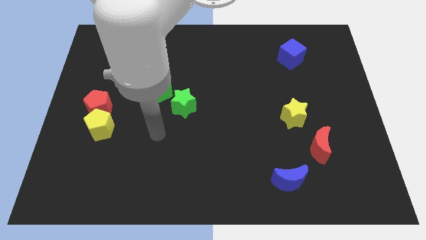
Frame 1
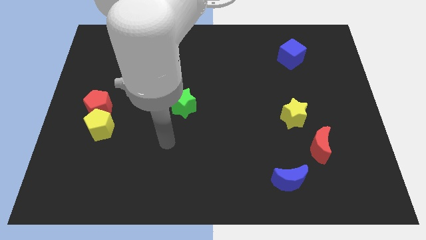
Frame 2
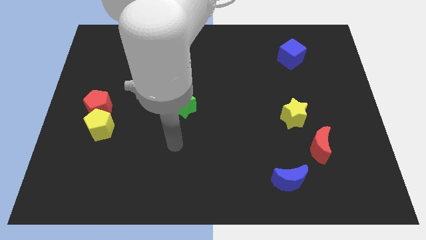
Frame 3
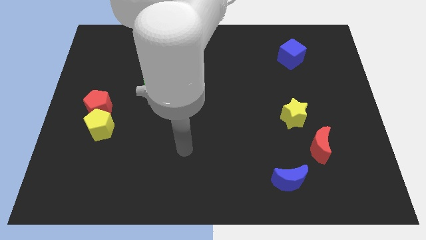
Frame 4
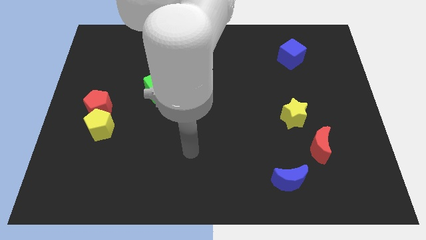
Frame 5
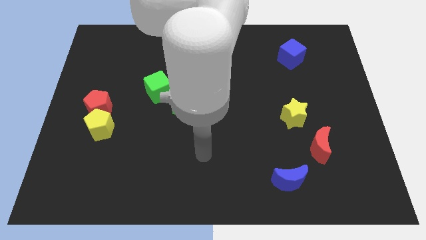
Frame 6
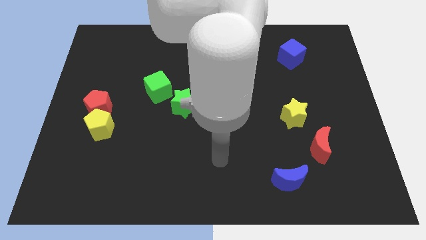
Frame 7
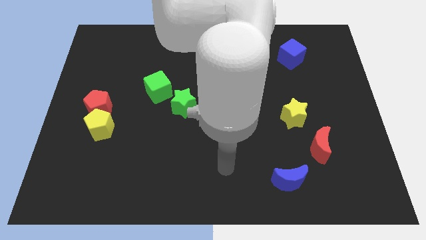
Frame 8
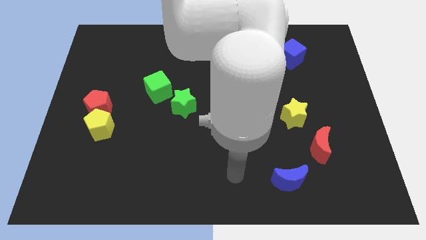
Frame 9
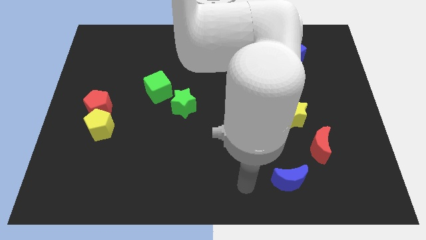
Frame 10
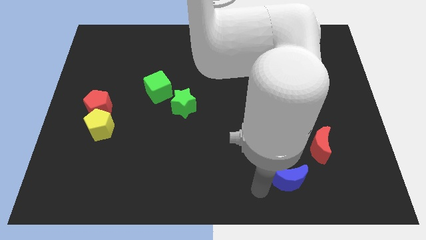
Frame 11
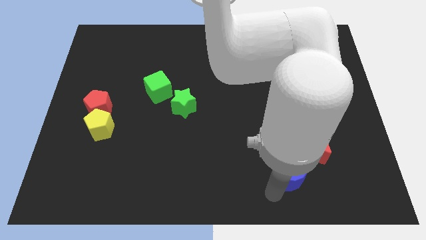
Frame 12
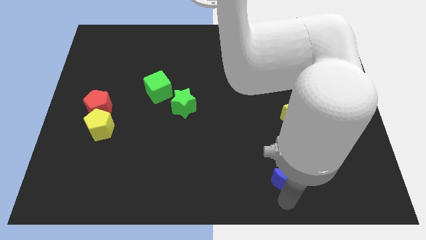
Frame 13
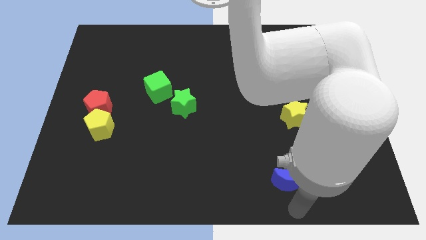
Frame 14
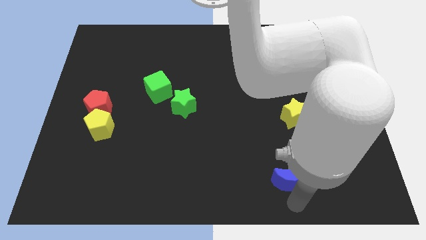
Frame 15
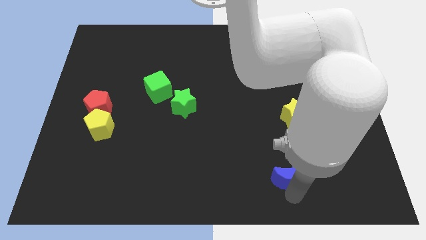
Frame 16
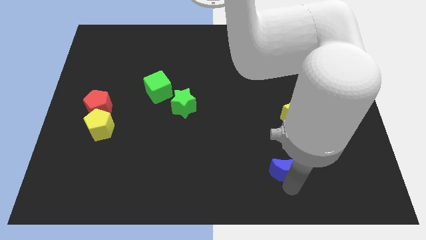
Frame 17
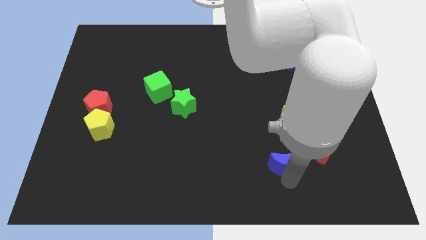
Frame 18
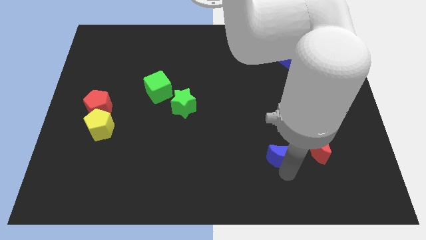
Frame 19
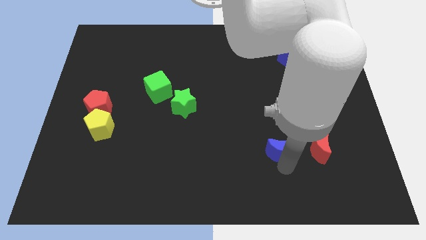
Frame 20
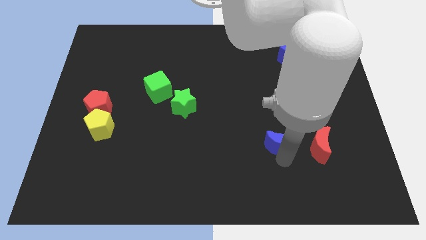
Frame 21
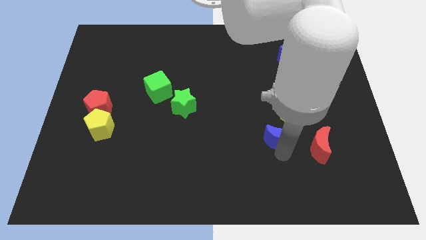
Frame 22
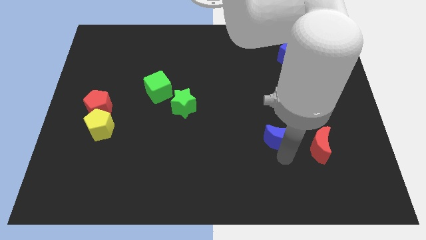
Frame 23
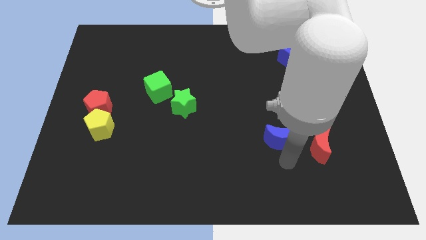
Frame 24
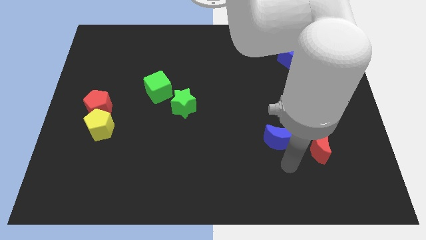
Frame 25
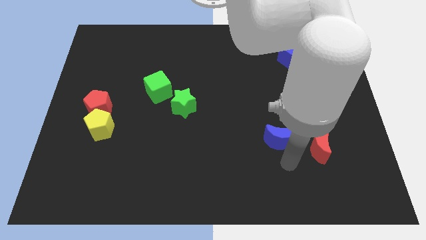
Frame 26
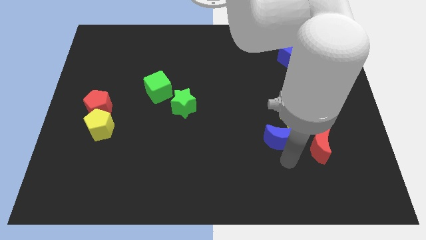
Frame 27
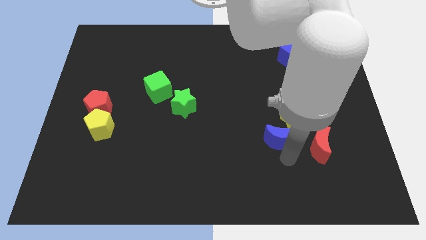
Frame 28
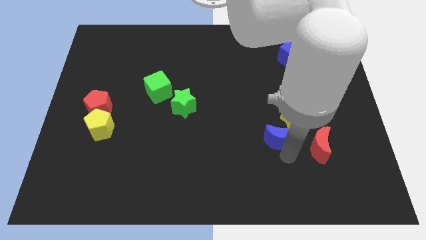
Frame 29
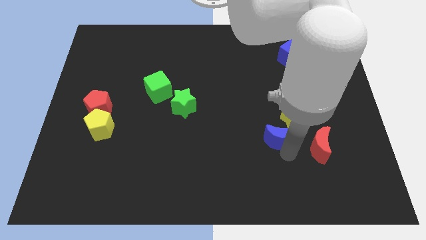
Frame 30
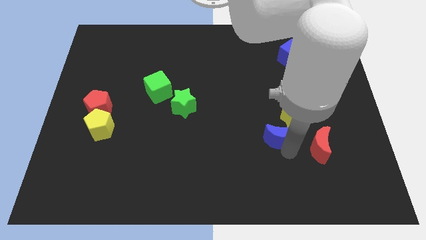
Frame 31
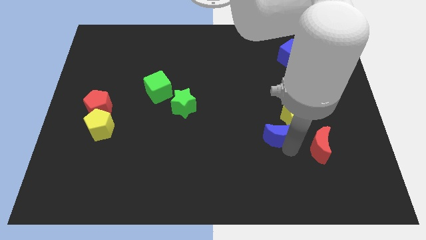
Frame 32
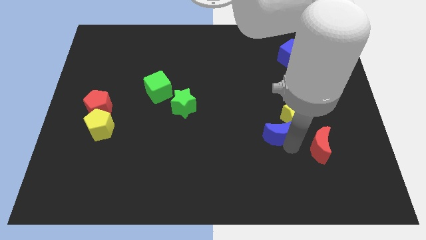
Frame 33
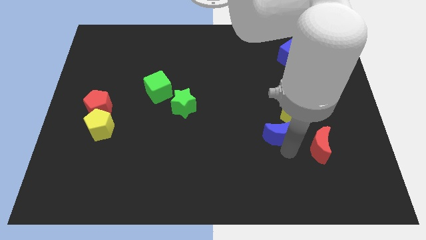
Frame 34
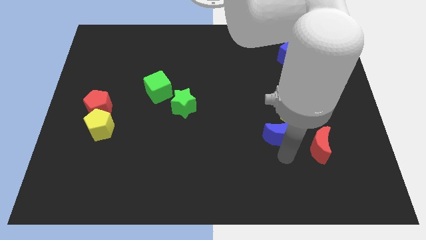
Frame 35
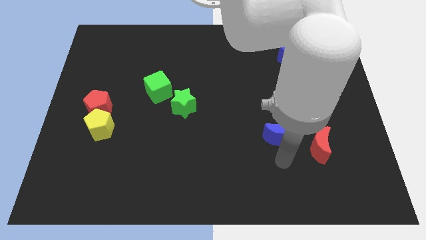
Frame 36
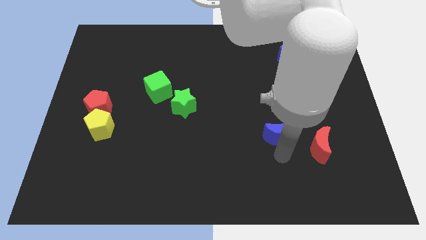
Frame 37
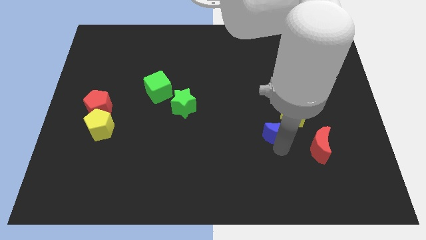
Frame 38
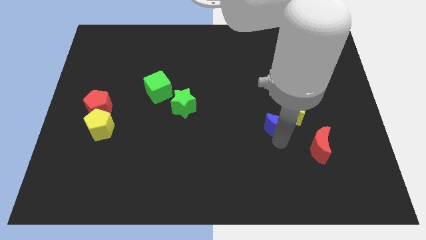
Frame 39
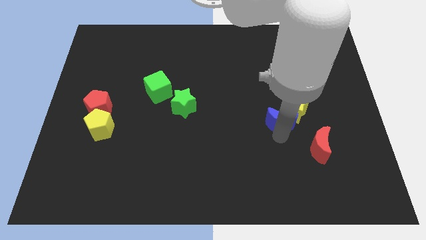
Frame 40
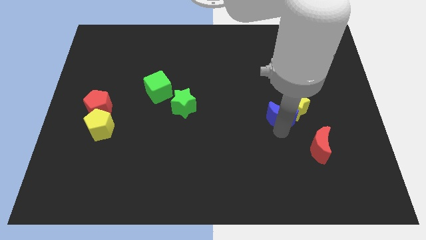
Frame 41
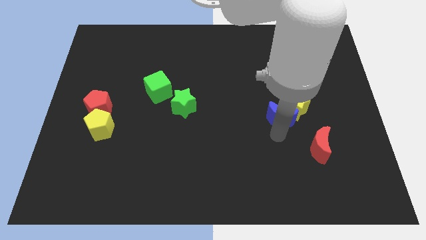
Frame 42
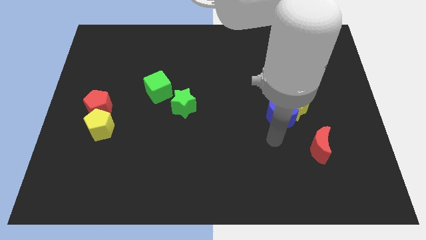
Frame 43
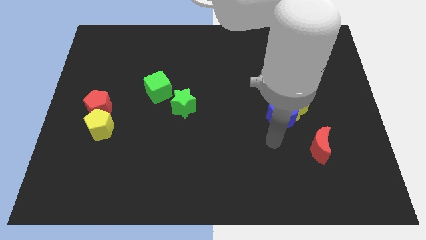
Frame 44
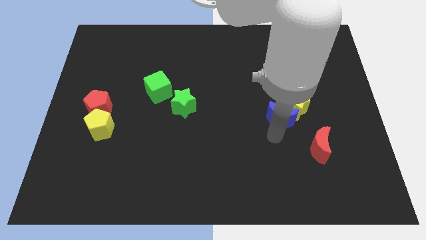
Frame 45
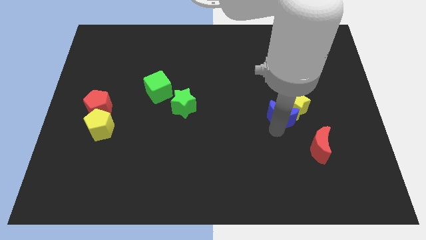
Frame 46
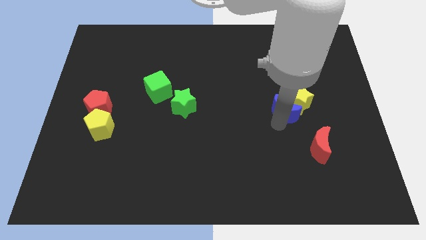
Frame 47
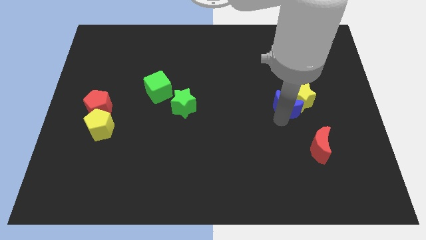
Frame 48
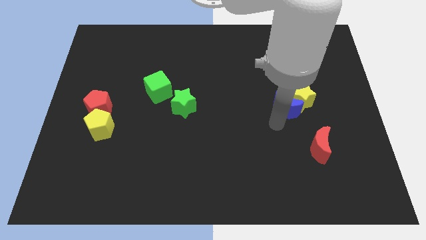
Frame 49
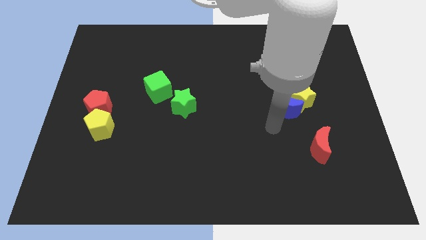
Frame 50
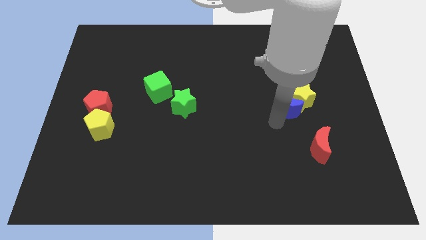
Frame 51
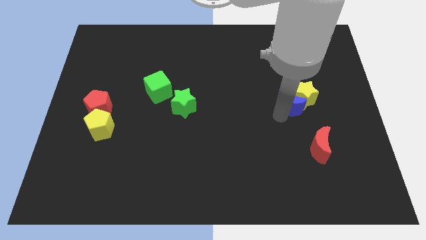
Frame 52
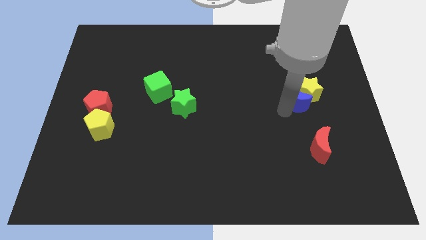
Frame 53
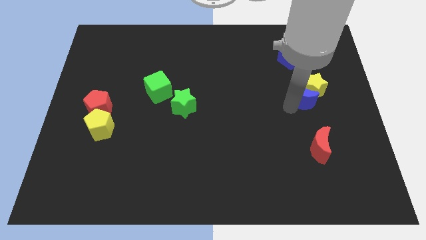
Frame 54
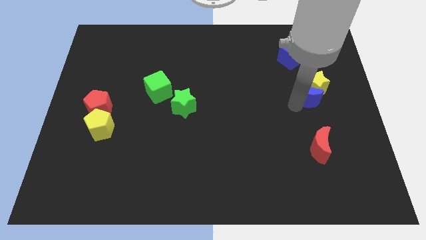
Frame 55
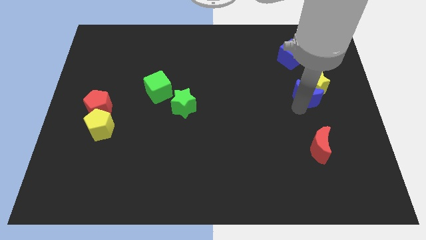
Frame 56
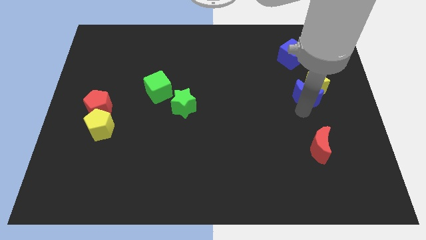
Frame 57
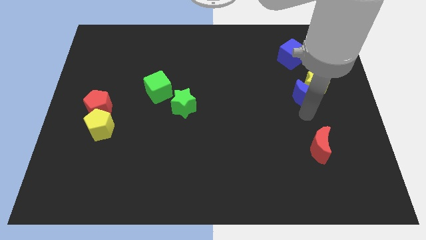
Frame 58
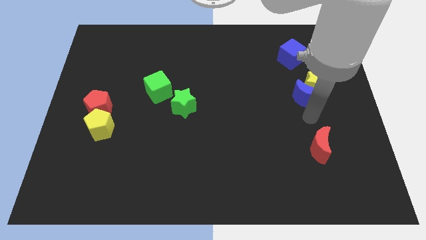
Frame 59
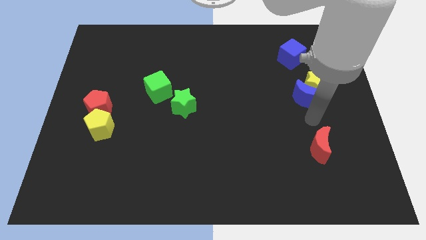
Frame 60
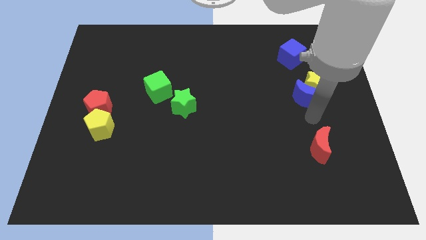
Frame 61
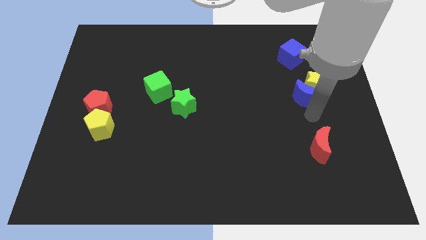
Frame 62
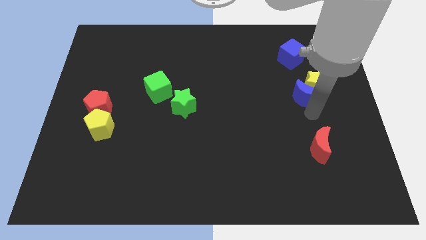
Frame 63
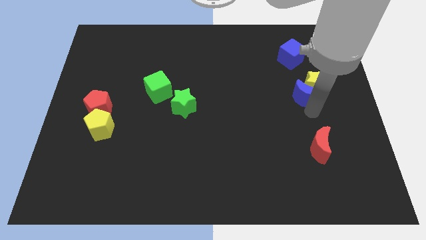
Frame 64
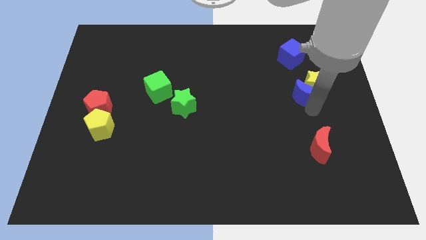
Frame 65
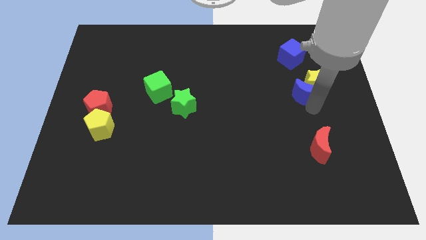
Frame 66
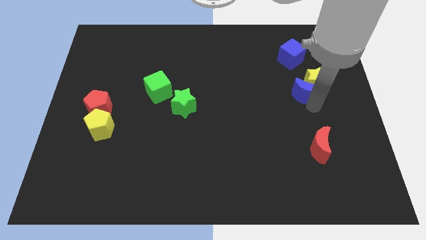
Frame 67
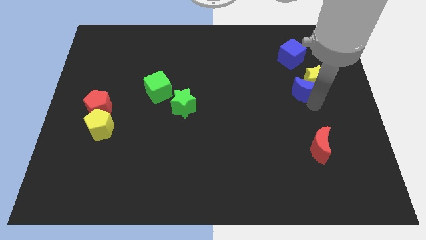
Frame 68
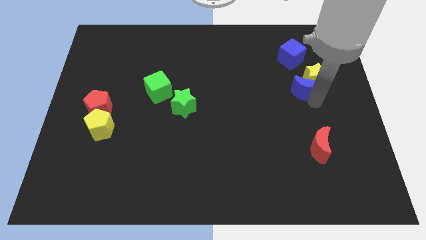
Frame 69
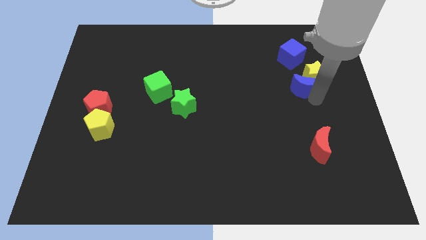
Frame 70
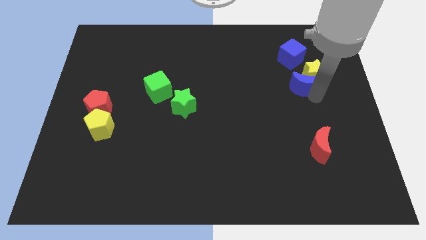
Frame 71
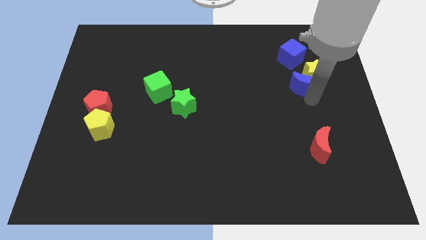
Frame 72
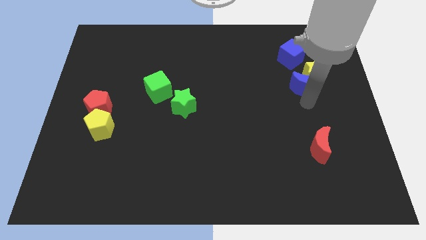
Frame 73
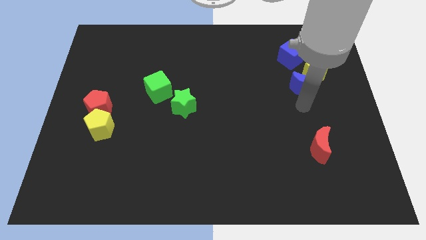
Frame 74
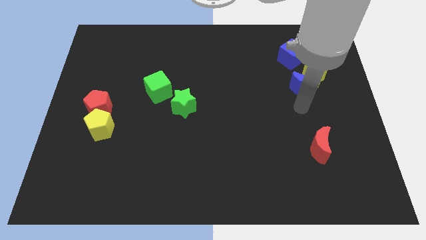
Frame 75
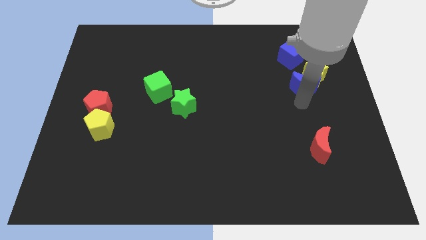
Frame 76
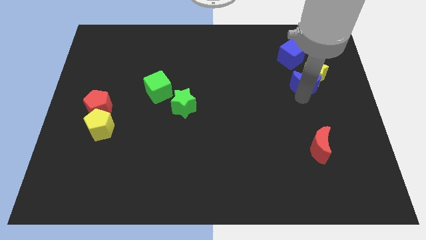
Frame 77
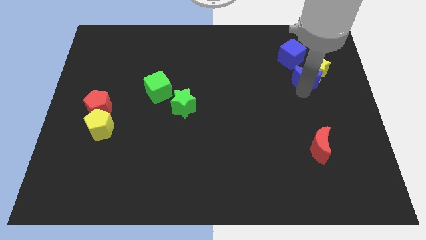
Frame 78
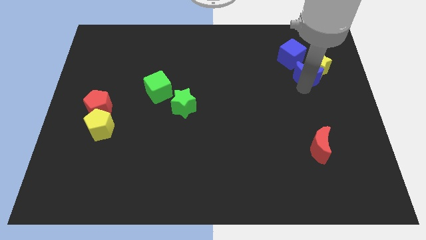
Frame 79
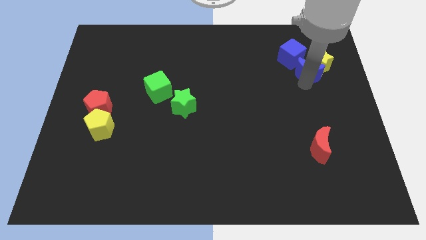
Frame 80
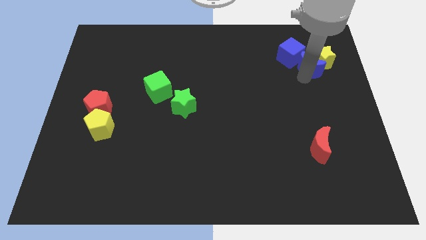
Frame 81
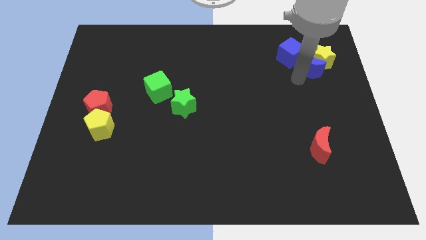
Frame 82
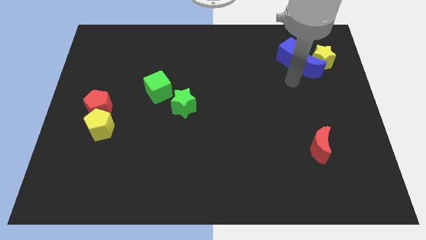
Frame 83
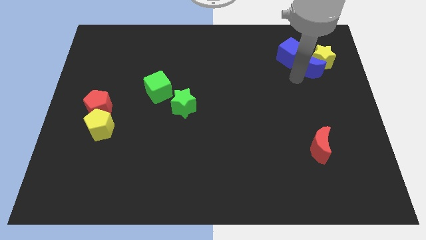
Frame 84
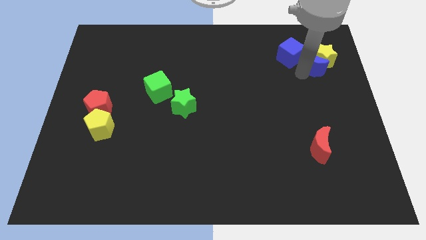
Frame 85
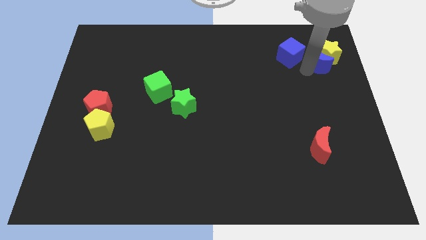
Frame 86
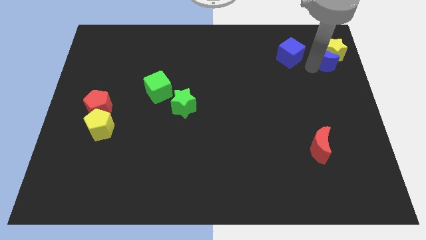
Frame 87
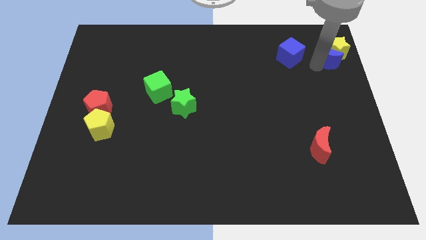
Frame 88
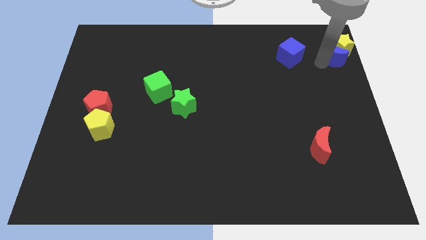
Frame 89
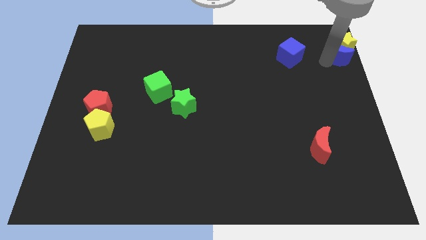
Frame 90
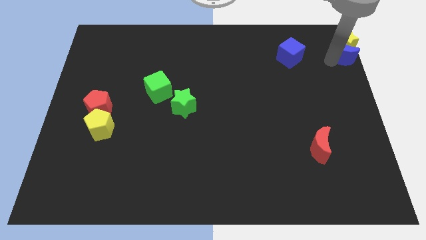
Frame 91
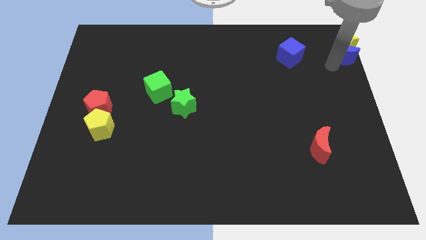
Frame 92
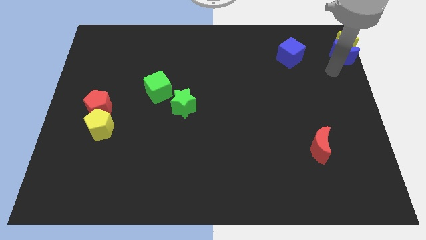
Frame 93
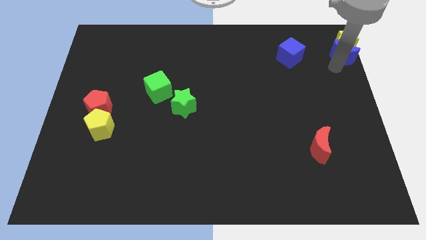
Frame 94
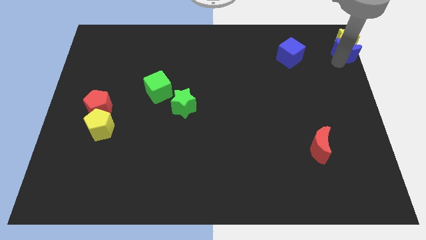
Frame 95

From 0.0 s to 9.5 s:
put the blue moon to the upper right corner
